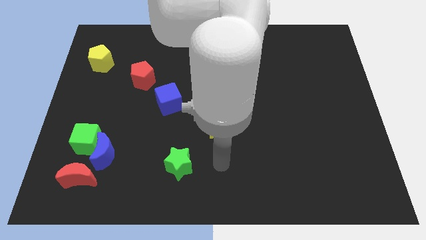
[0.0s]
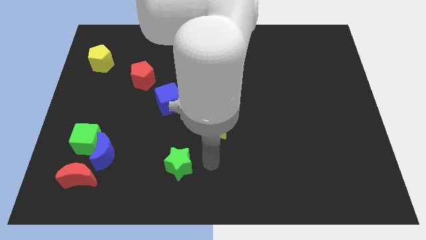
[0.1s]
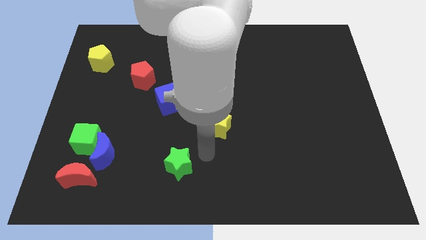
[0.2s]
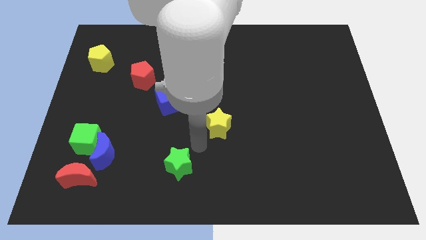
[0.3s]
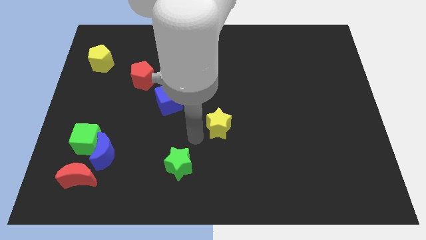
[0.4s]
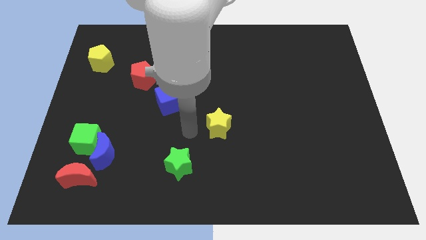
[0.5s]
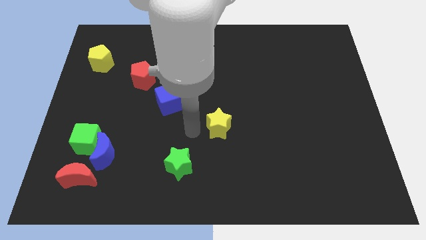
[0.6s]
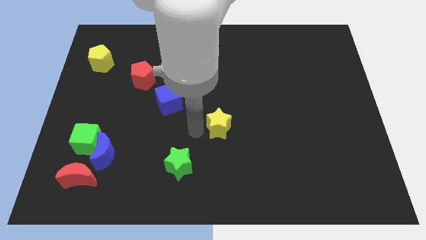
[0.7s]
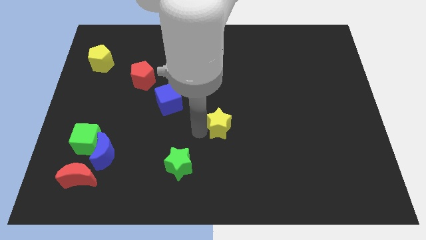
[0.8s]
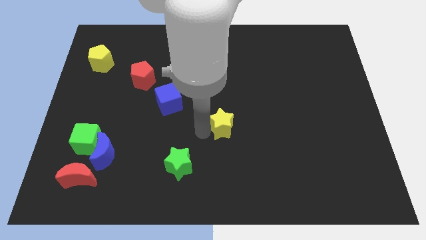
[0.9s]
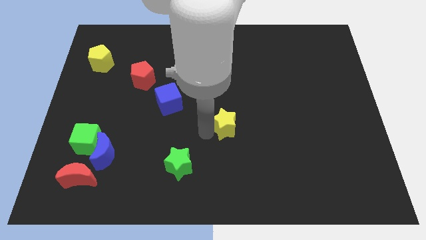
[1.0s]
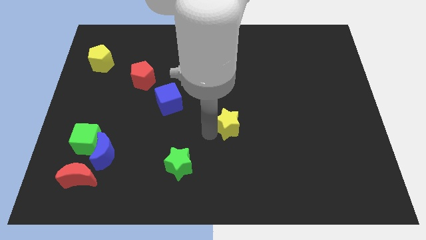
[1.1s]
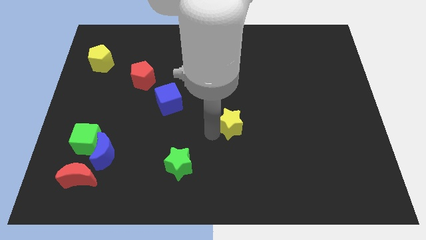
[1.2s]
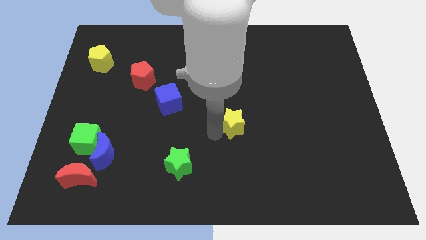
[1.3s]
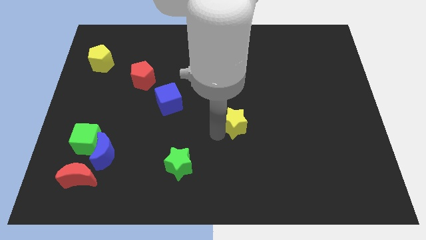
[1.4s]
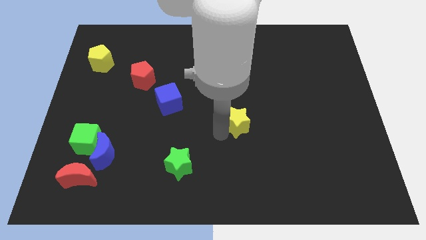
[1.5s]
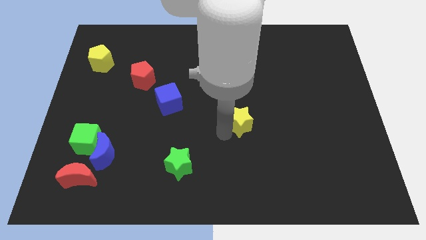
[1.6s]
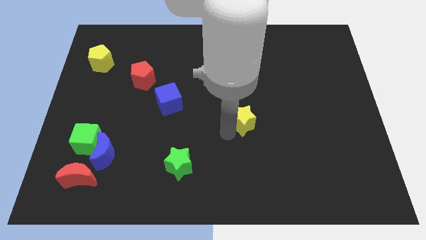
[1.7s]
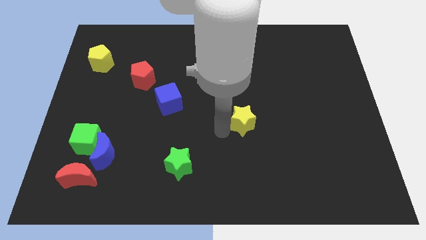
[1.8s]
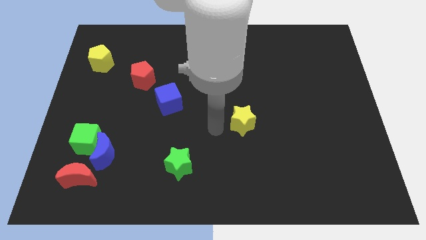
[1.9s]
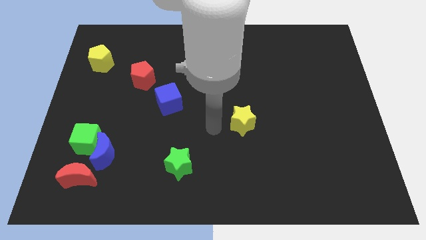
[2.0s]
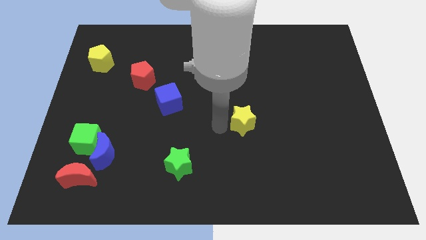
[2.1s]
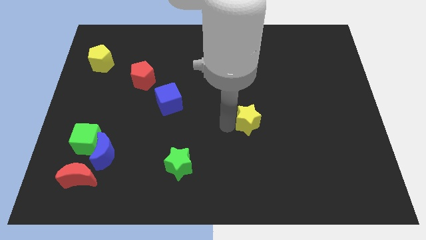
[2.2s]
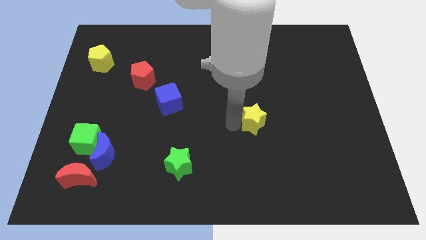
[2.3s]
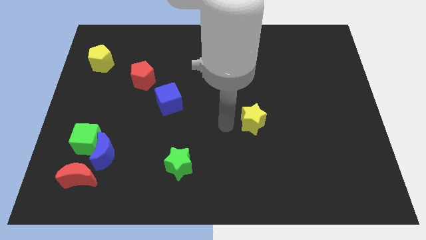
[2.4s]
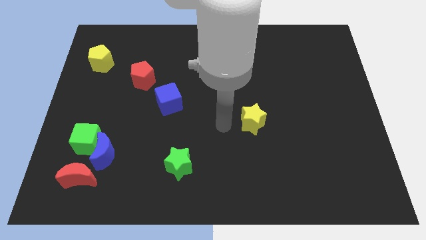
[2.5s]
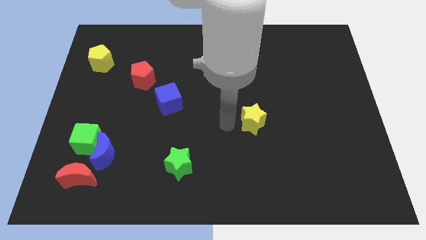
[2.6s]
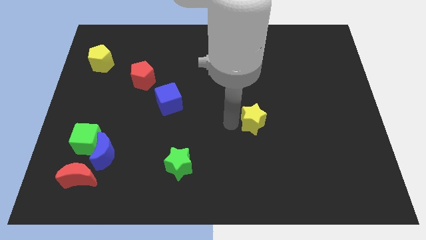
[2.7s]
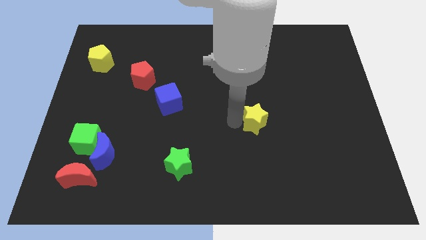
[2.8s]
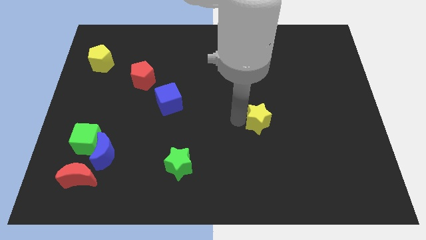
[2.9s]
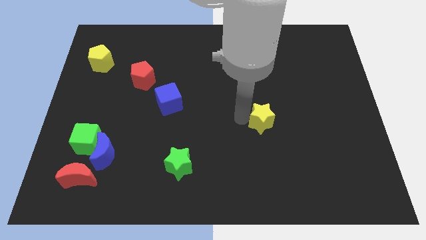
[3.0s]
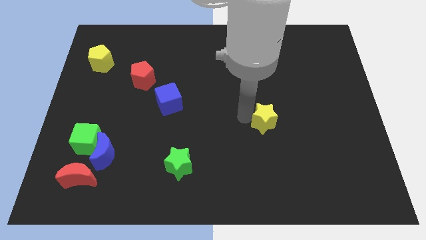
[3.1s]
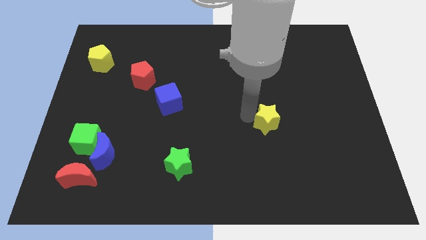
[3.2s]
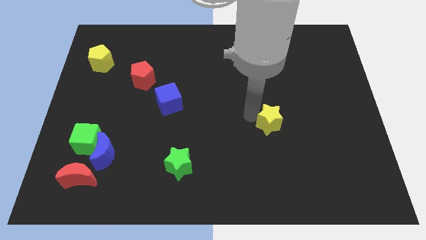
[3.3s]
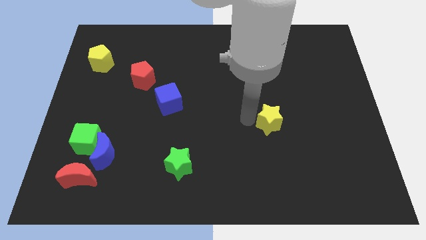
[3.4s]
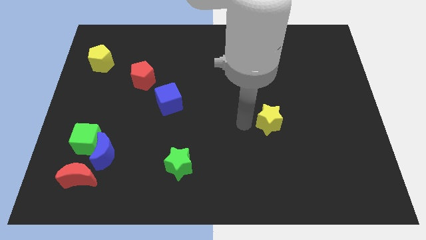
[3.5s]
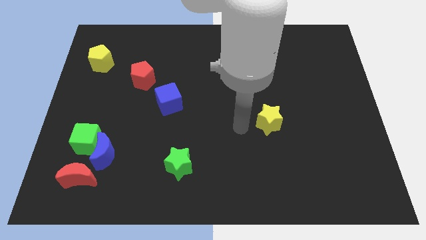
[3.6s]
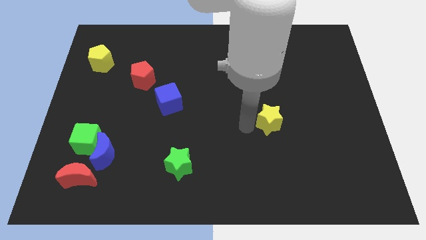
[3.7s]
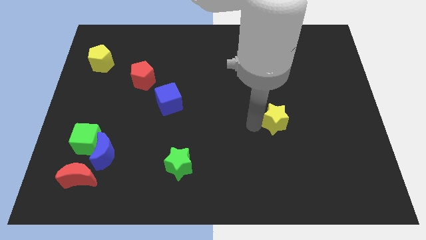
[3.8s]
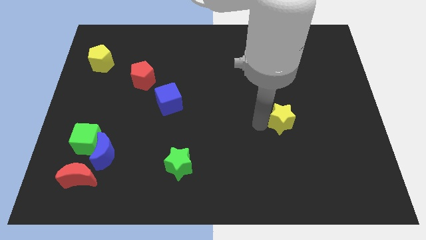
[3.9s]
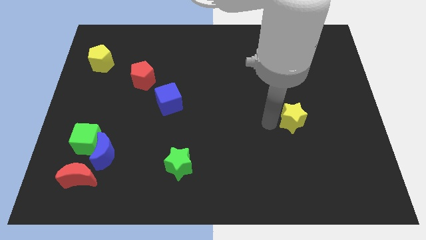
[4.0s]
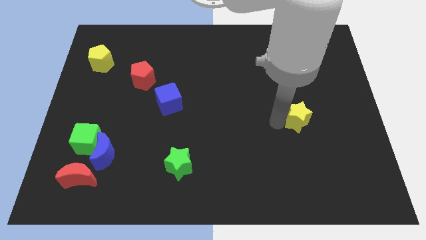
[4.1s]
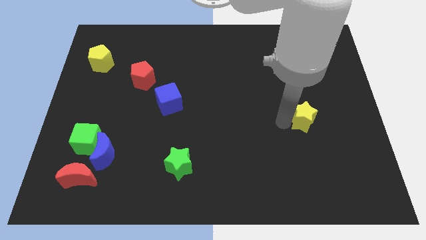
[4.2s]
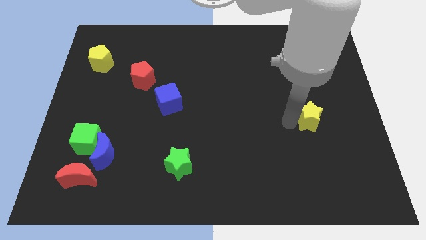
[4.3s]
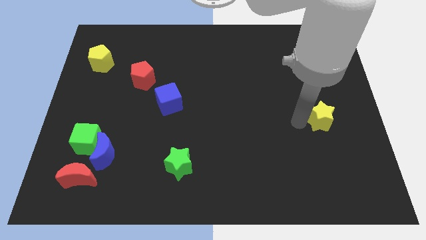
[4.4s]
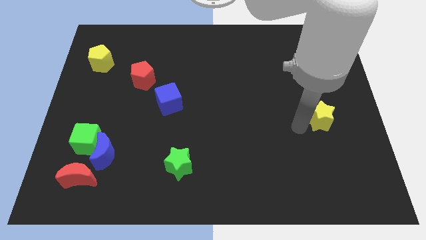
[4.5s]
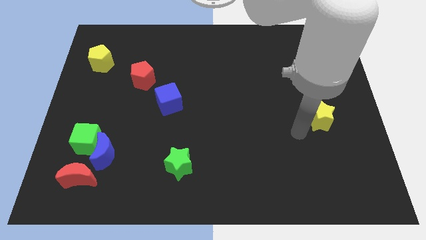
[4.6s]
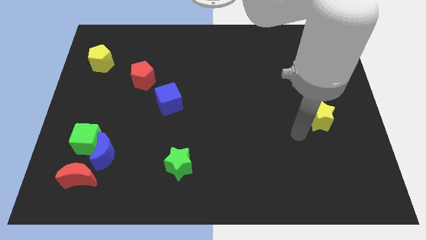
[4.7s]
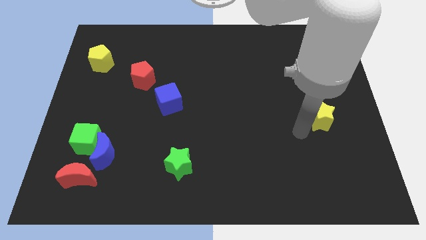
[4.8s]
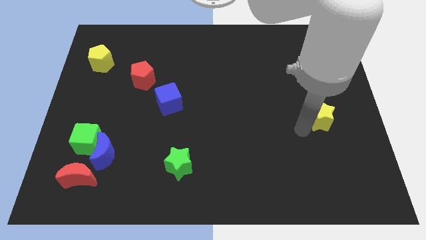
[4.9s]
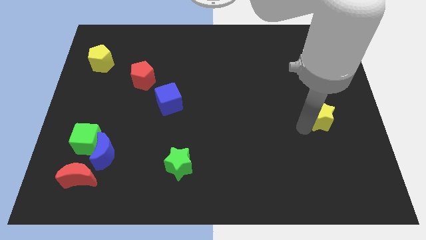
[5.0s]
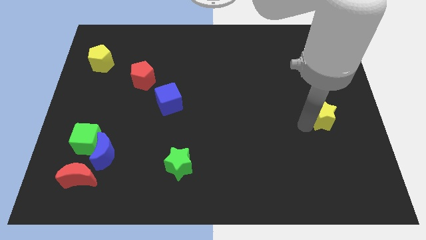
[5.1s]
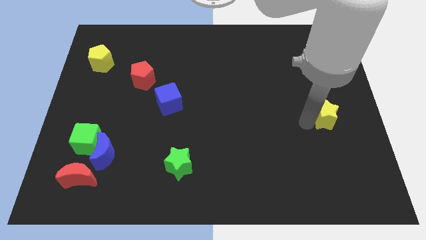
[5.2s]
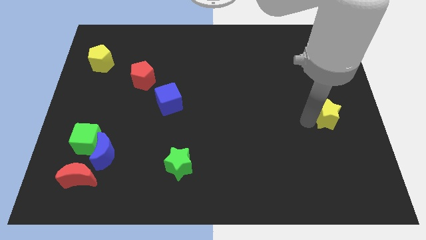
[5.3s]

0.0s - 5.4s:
put the yellow star to the right side

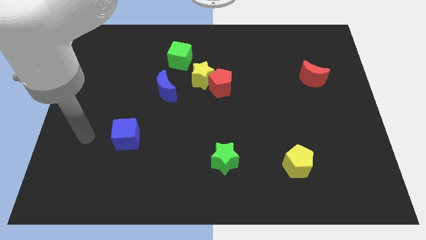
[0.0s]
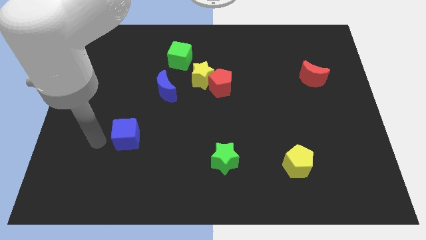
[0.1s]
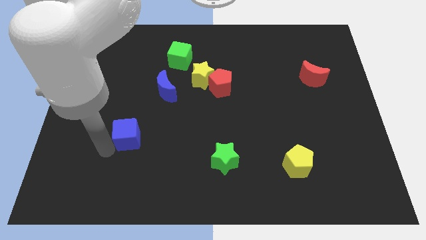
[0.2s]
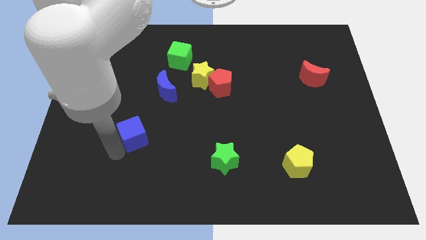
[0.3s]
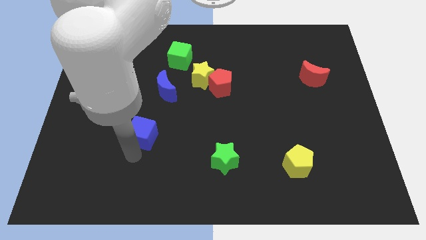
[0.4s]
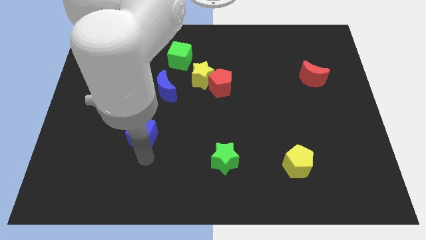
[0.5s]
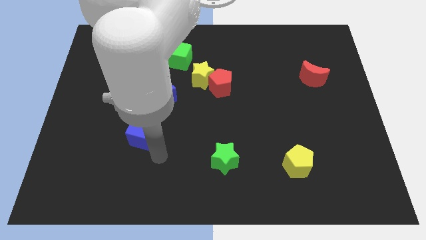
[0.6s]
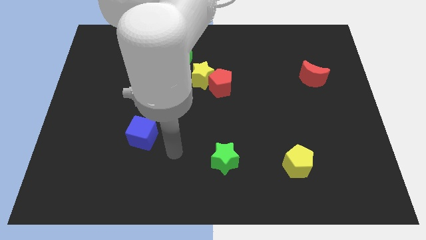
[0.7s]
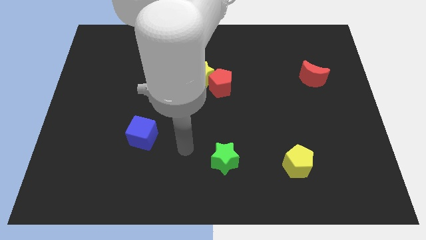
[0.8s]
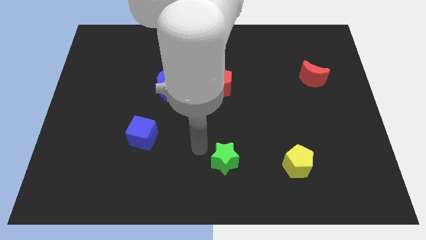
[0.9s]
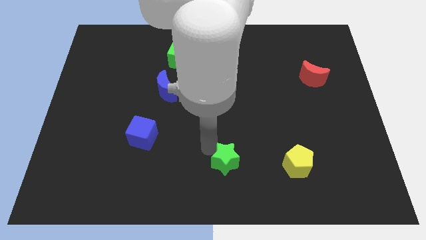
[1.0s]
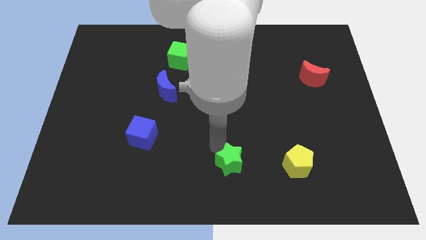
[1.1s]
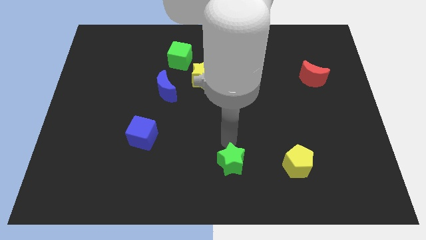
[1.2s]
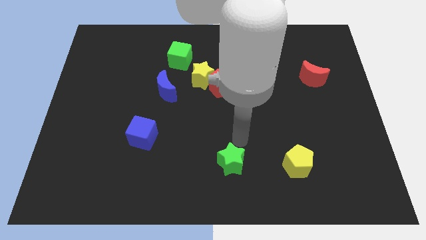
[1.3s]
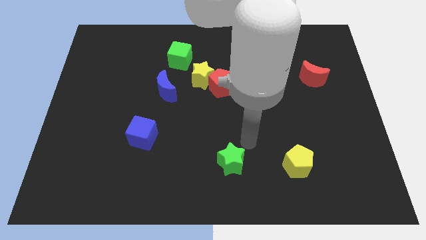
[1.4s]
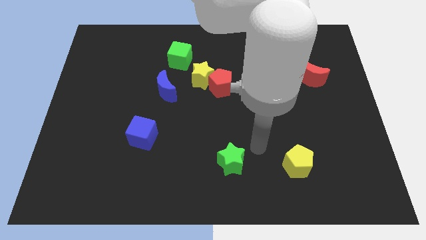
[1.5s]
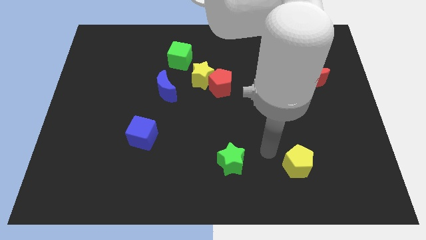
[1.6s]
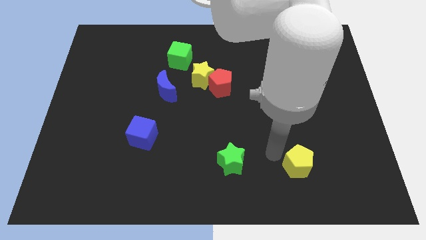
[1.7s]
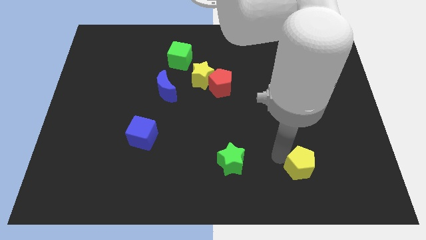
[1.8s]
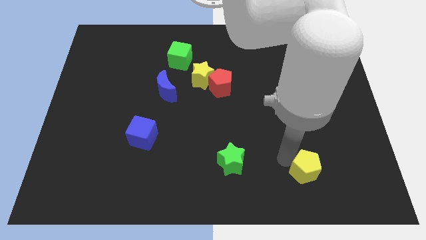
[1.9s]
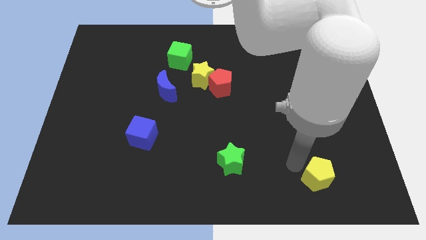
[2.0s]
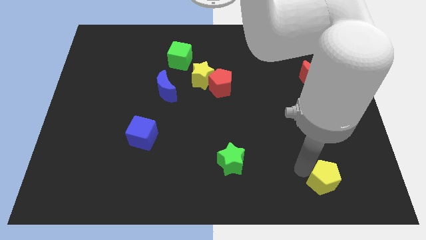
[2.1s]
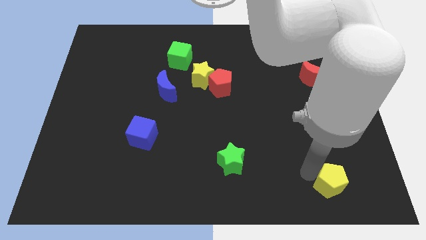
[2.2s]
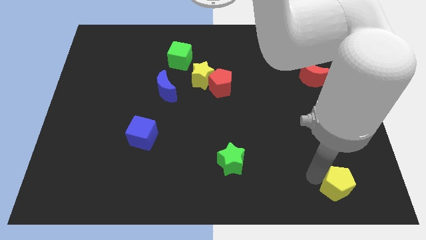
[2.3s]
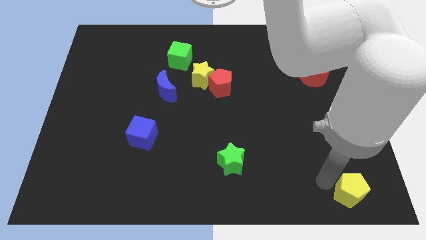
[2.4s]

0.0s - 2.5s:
slide the yellow pentagon to the bottom right corner
